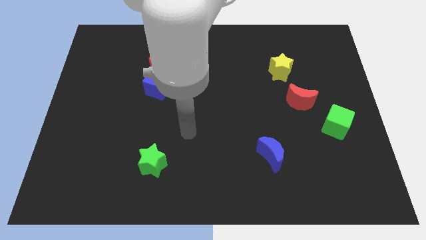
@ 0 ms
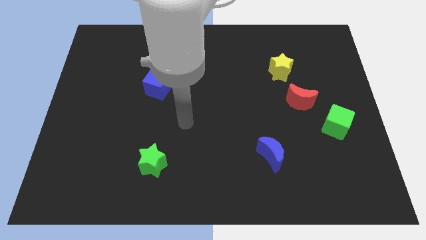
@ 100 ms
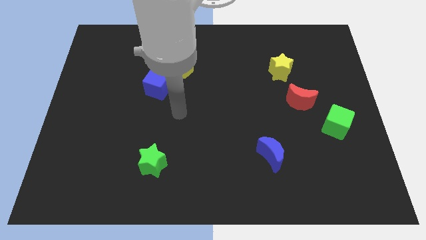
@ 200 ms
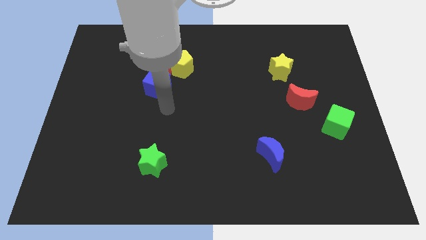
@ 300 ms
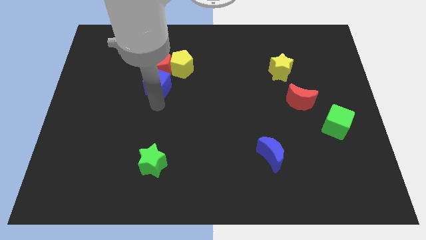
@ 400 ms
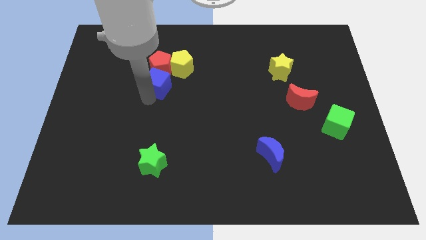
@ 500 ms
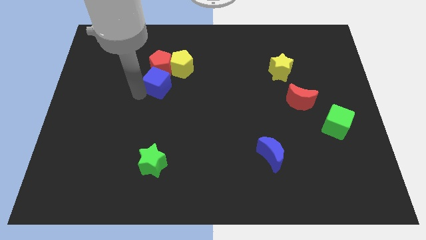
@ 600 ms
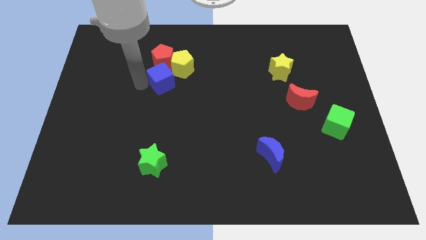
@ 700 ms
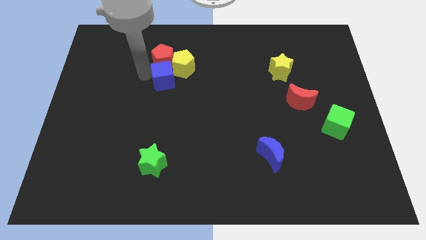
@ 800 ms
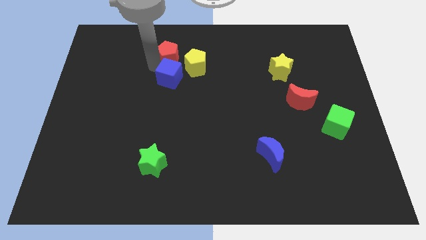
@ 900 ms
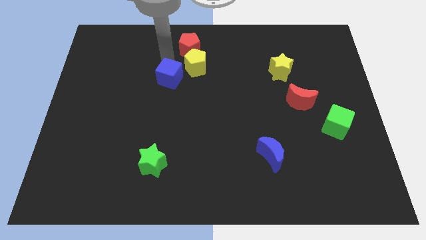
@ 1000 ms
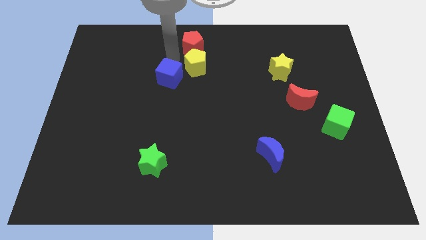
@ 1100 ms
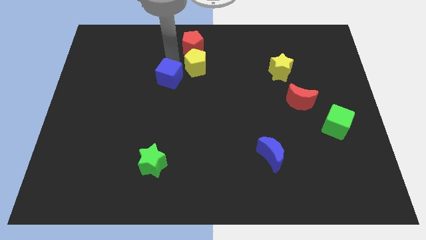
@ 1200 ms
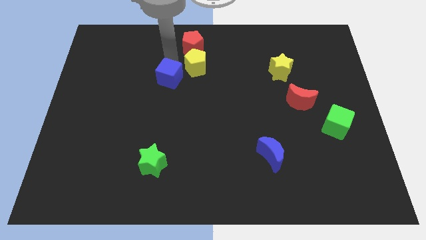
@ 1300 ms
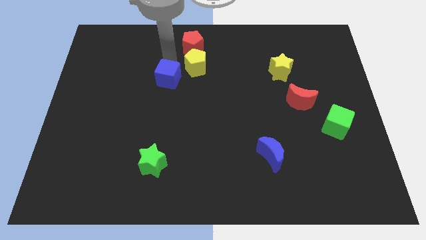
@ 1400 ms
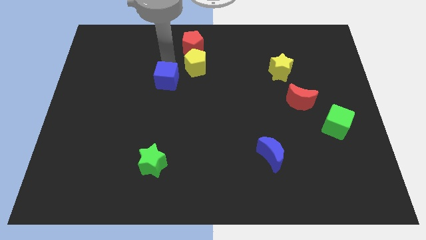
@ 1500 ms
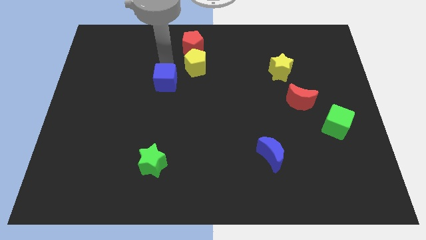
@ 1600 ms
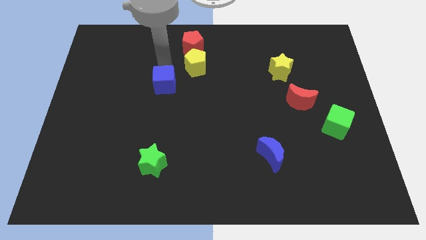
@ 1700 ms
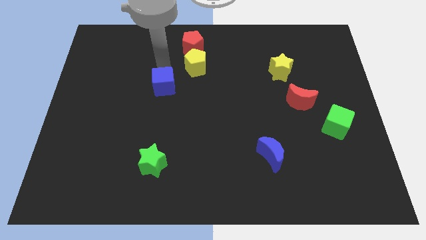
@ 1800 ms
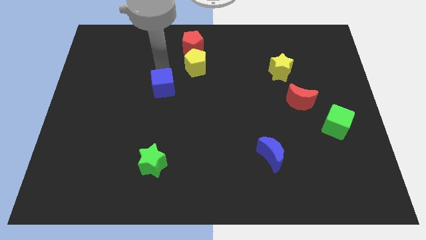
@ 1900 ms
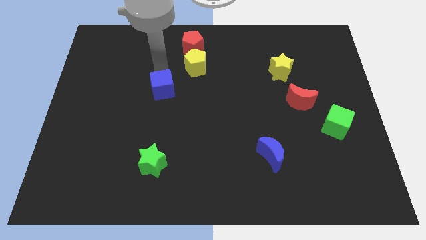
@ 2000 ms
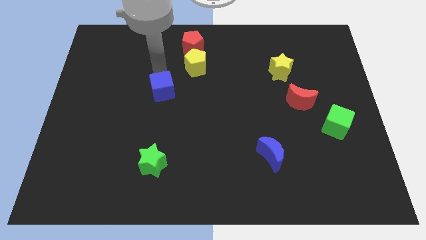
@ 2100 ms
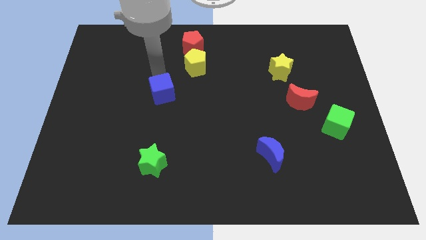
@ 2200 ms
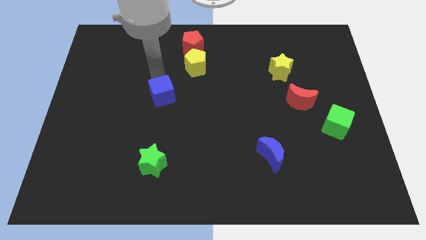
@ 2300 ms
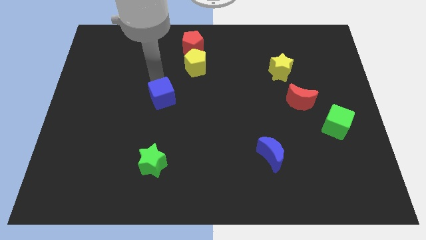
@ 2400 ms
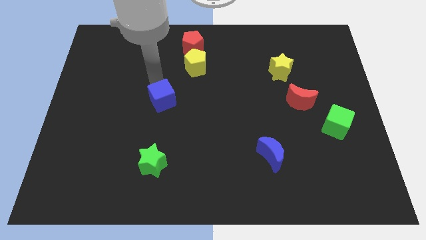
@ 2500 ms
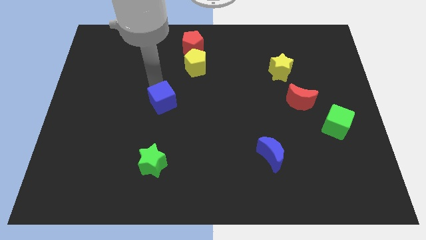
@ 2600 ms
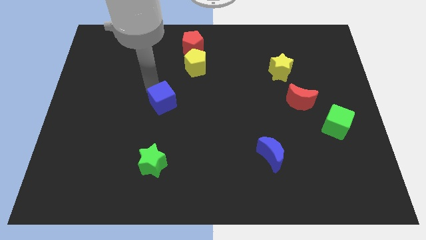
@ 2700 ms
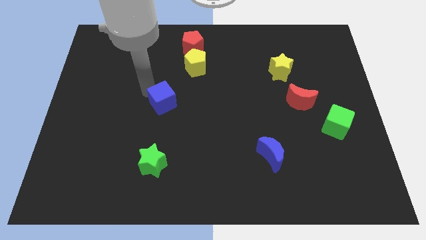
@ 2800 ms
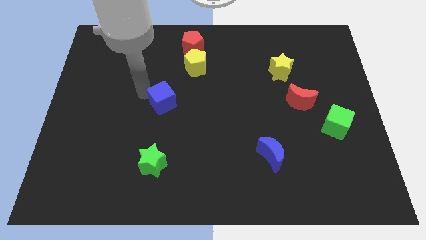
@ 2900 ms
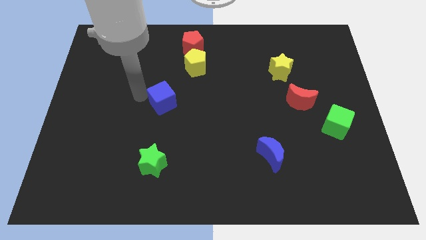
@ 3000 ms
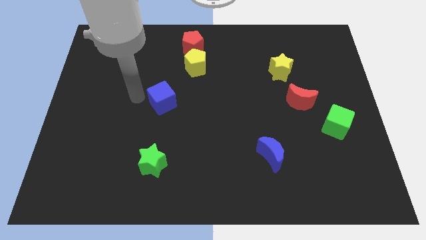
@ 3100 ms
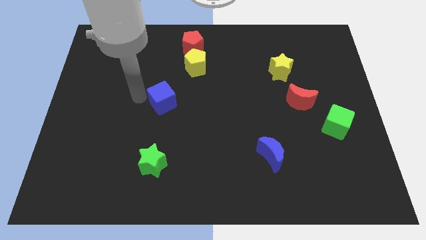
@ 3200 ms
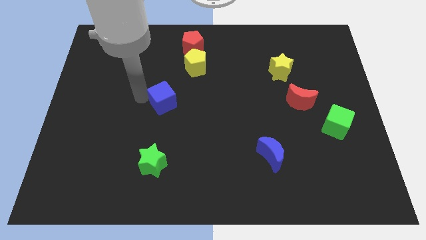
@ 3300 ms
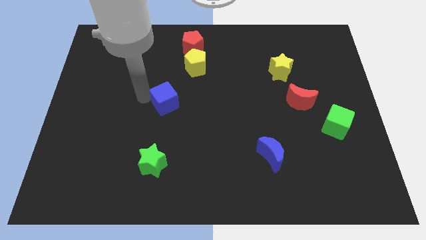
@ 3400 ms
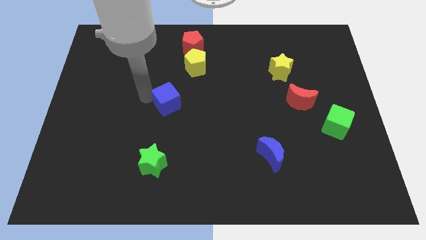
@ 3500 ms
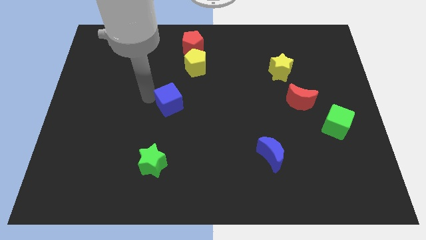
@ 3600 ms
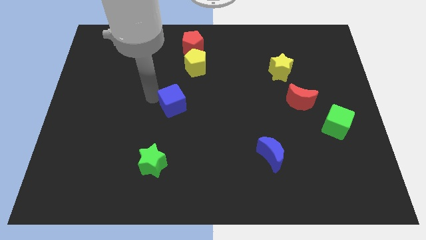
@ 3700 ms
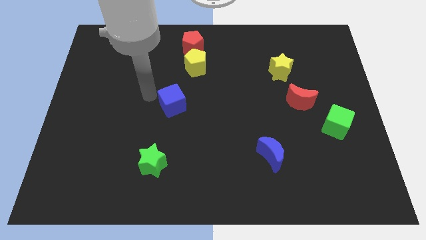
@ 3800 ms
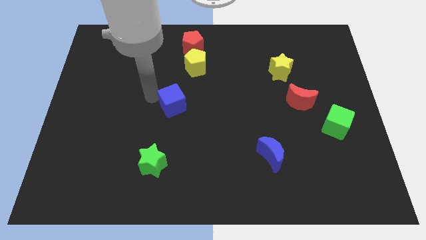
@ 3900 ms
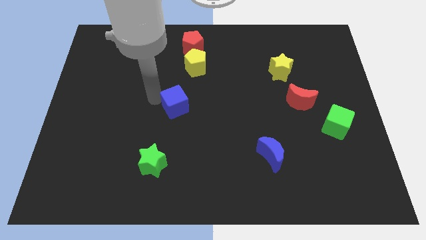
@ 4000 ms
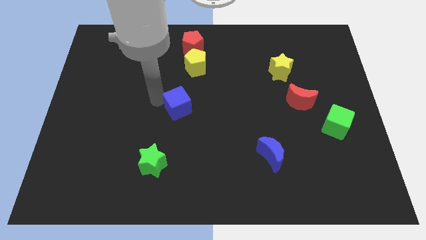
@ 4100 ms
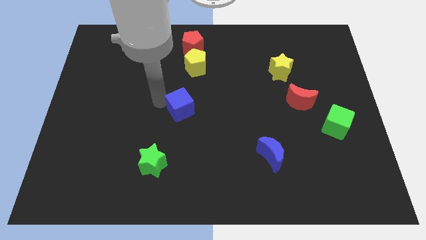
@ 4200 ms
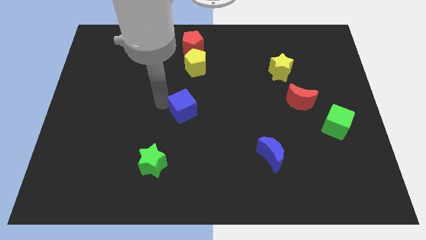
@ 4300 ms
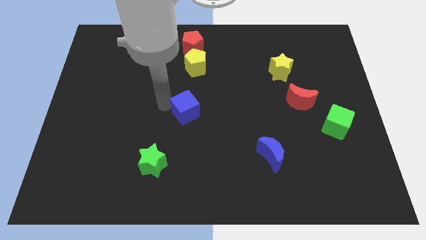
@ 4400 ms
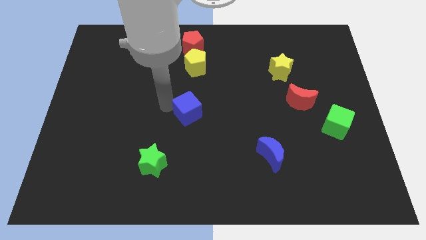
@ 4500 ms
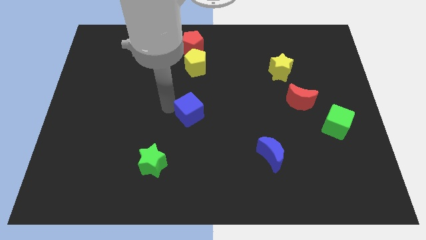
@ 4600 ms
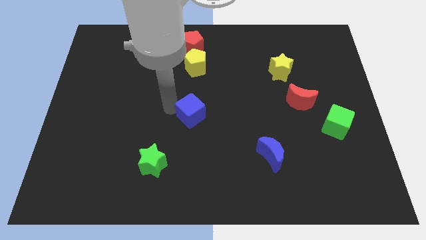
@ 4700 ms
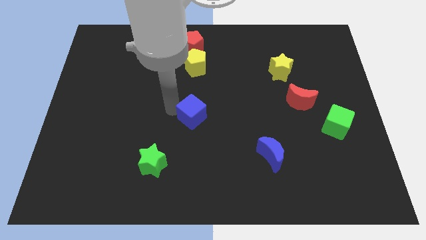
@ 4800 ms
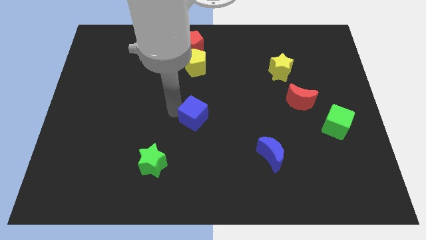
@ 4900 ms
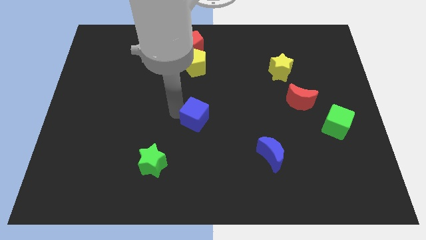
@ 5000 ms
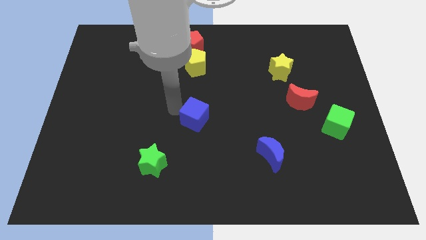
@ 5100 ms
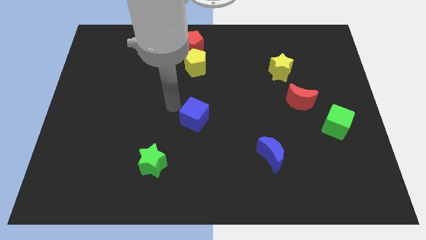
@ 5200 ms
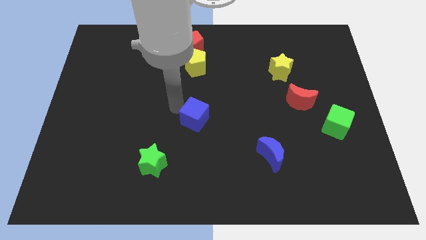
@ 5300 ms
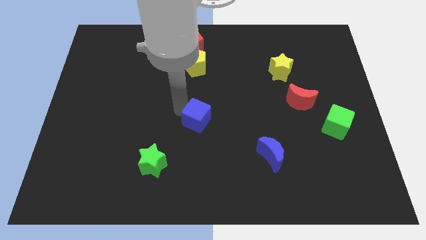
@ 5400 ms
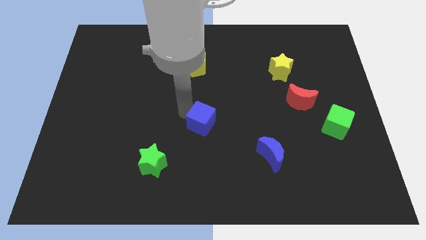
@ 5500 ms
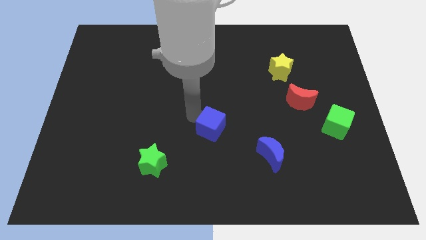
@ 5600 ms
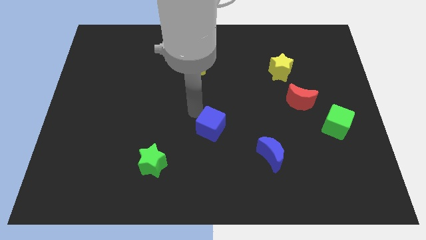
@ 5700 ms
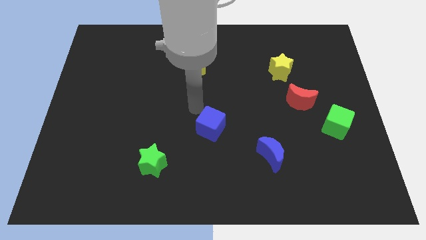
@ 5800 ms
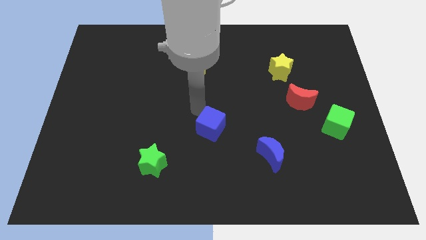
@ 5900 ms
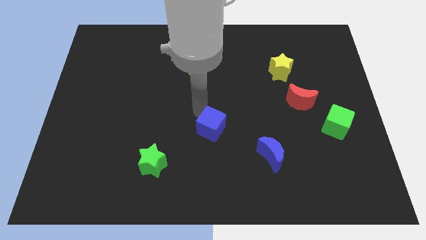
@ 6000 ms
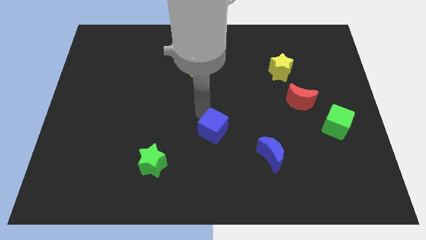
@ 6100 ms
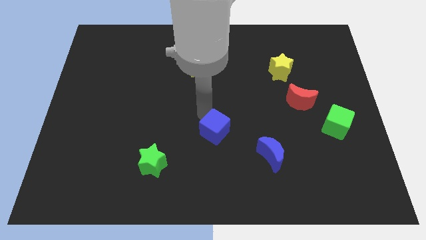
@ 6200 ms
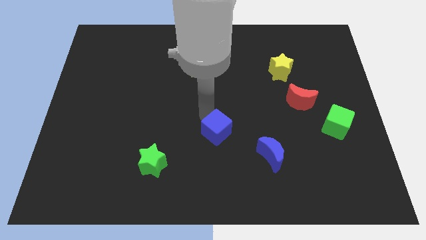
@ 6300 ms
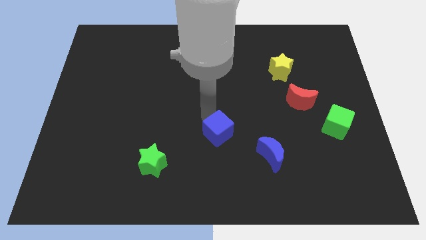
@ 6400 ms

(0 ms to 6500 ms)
move the blue cube diagonally downwards and to the right

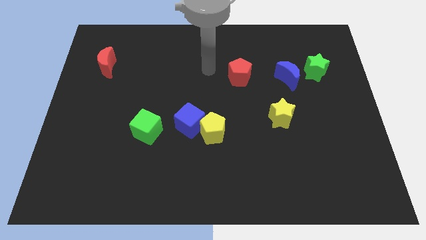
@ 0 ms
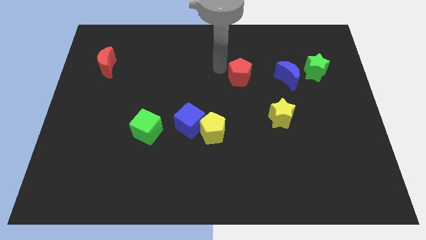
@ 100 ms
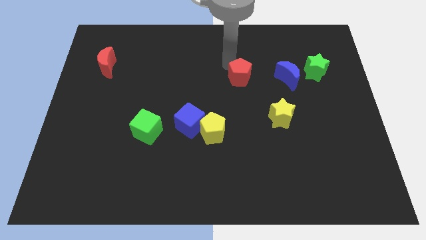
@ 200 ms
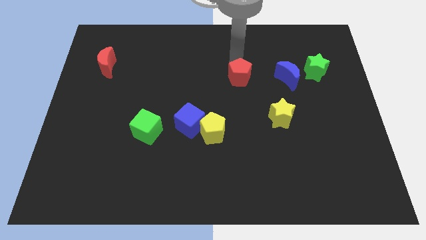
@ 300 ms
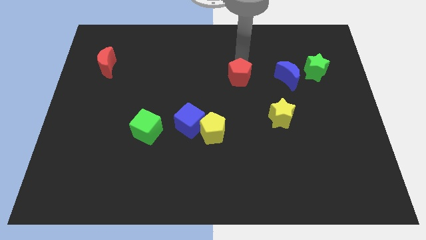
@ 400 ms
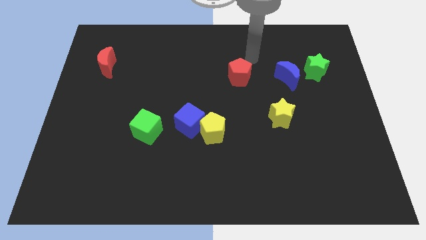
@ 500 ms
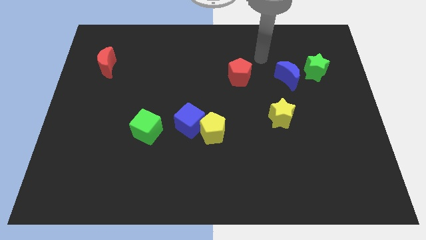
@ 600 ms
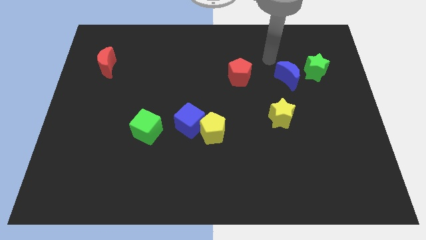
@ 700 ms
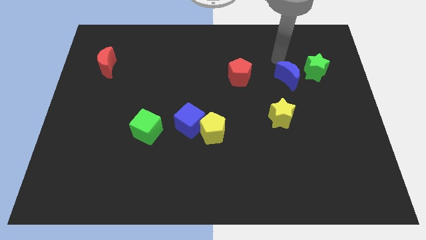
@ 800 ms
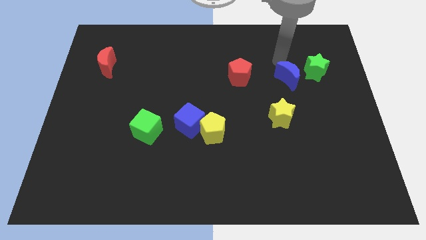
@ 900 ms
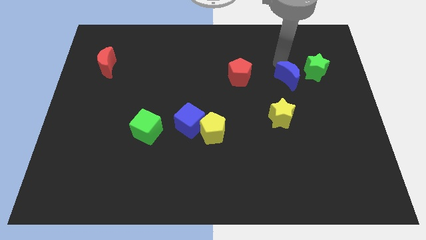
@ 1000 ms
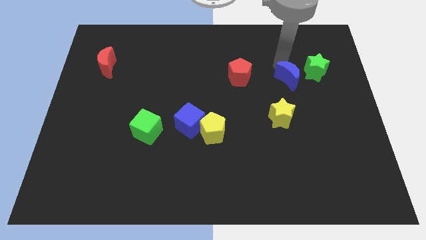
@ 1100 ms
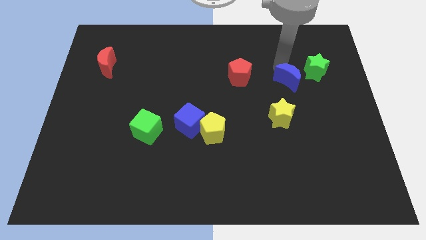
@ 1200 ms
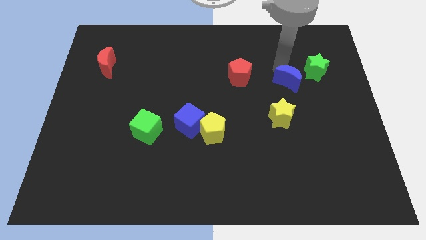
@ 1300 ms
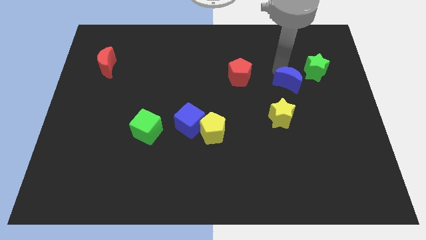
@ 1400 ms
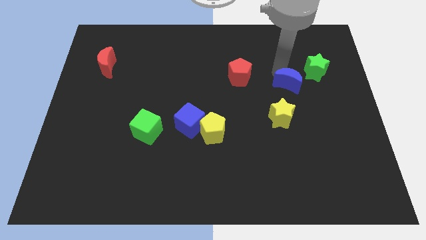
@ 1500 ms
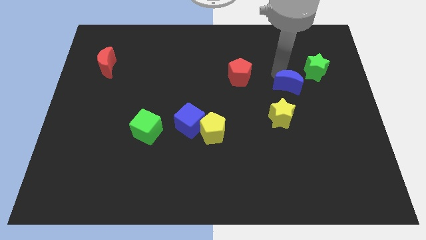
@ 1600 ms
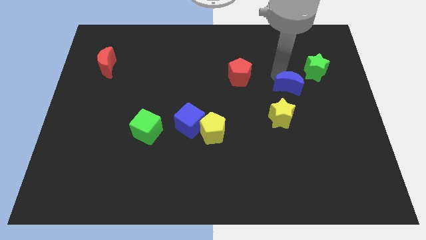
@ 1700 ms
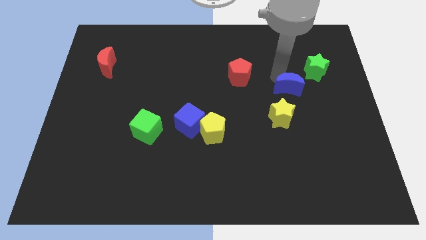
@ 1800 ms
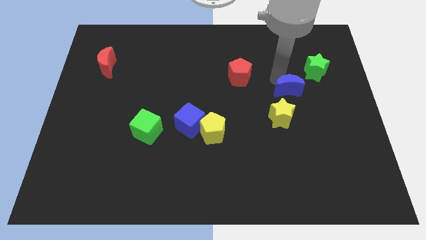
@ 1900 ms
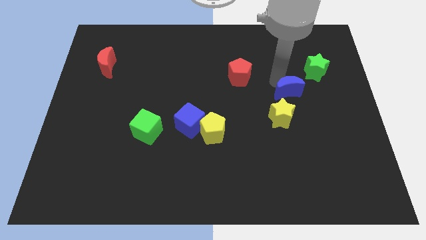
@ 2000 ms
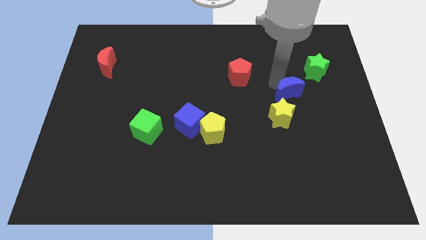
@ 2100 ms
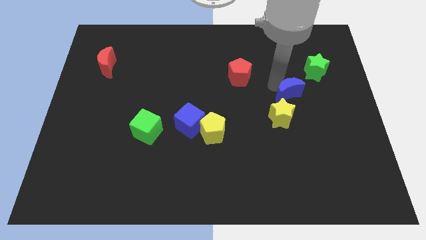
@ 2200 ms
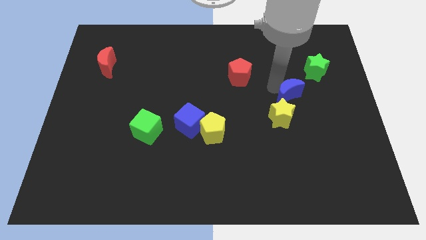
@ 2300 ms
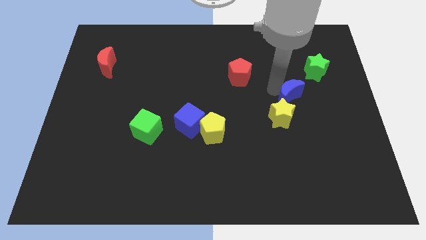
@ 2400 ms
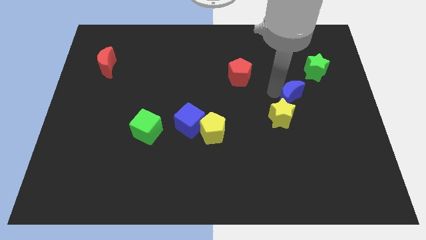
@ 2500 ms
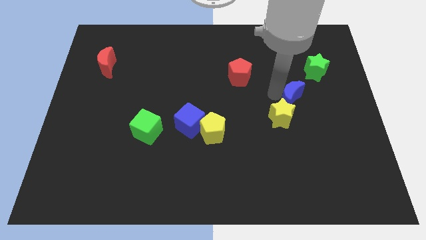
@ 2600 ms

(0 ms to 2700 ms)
slide the blue moon somewhat down
